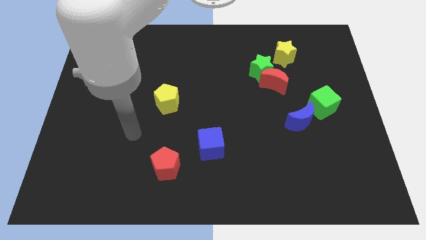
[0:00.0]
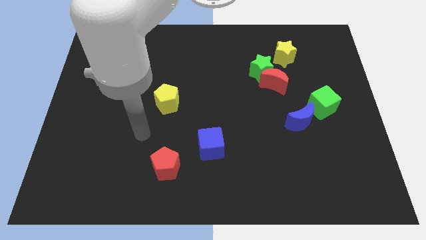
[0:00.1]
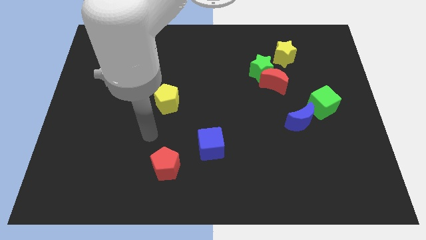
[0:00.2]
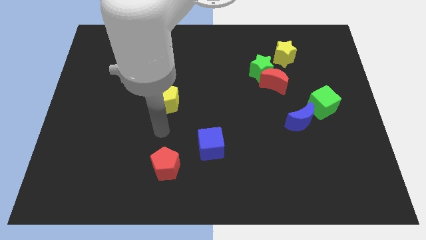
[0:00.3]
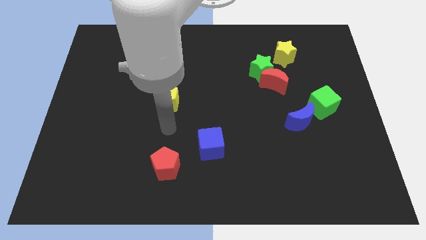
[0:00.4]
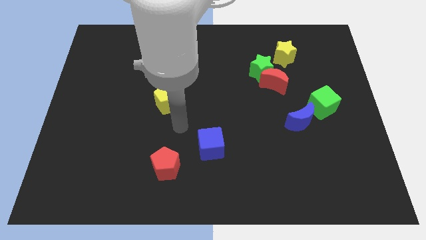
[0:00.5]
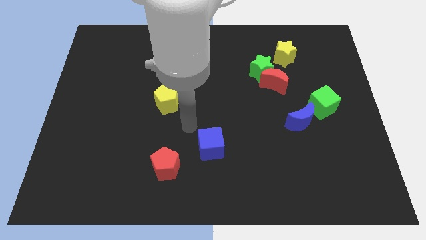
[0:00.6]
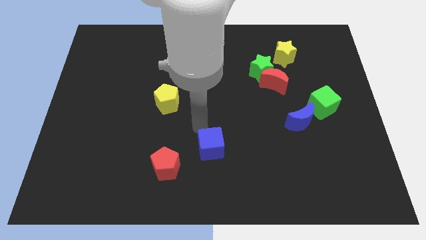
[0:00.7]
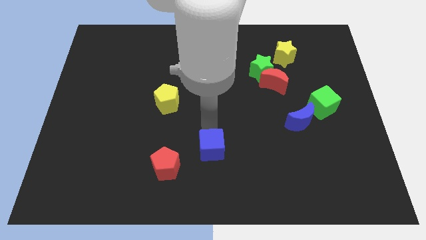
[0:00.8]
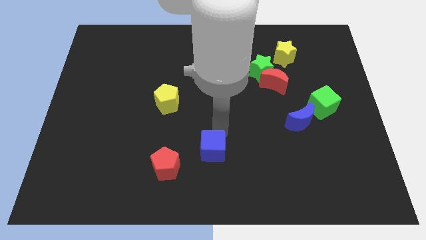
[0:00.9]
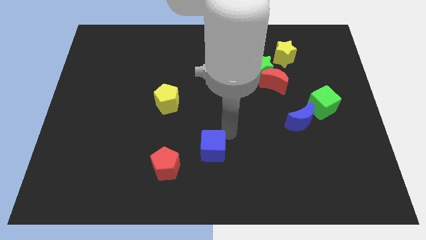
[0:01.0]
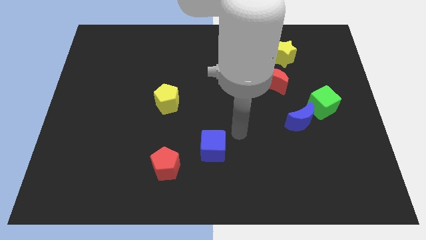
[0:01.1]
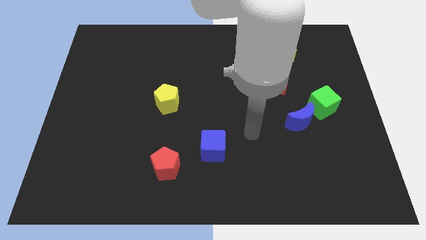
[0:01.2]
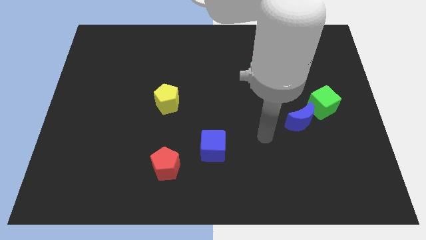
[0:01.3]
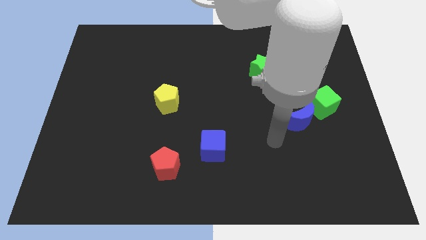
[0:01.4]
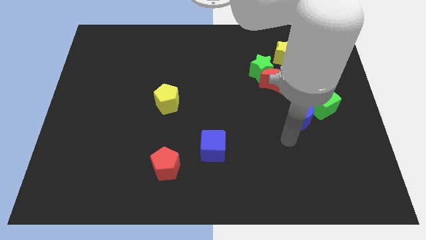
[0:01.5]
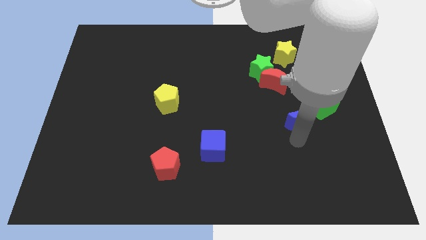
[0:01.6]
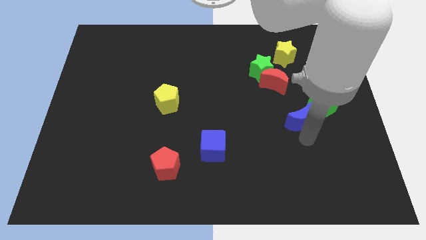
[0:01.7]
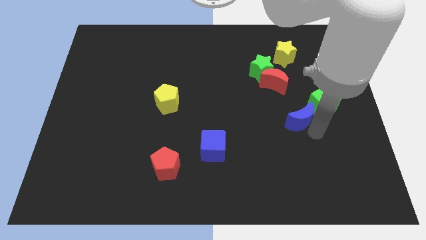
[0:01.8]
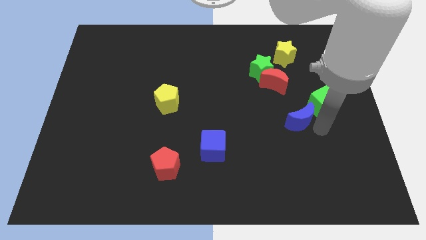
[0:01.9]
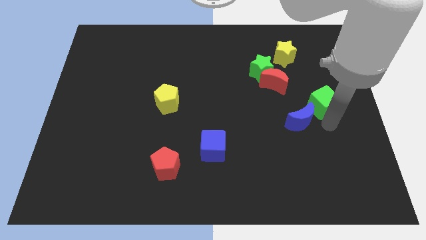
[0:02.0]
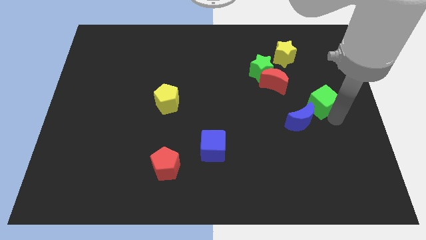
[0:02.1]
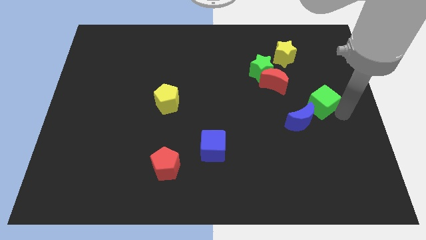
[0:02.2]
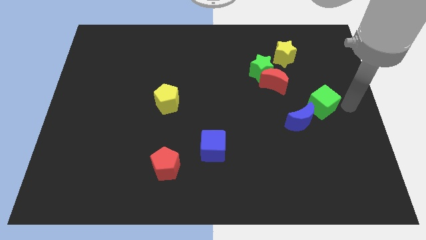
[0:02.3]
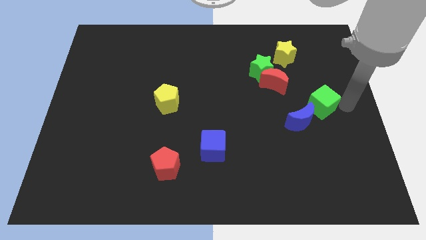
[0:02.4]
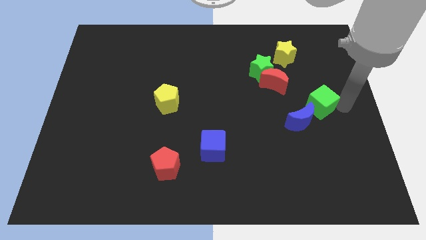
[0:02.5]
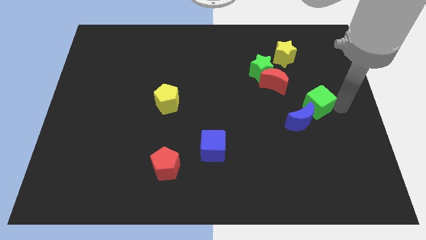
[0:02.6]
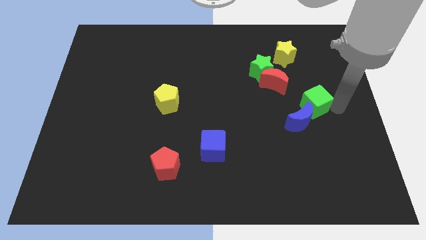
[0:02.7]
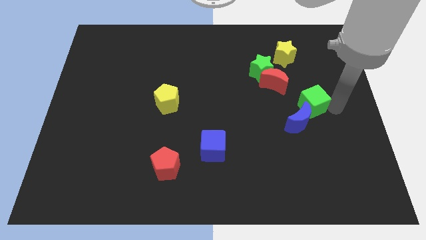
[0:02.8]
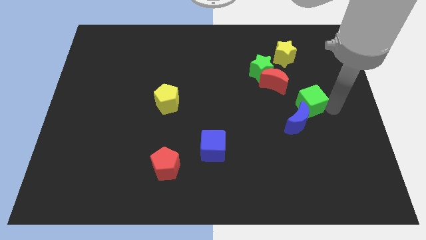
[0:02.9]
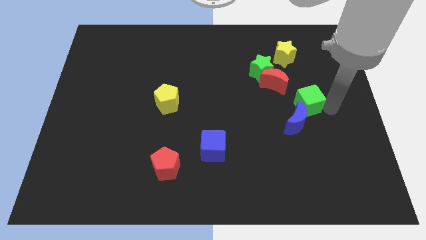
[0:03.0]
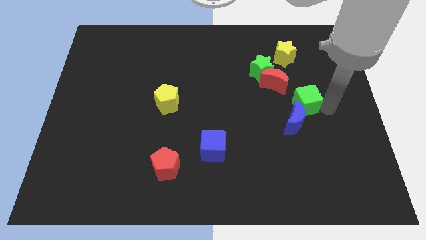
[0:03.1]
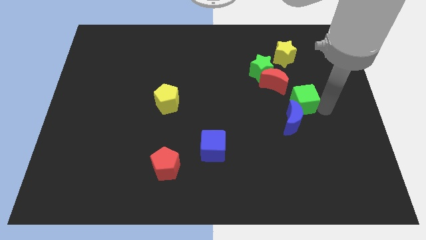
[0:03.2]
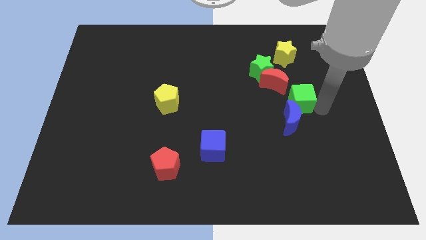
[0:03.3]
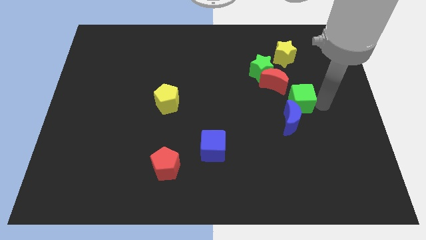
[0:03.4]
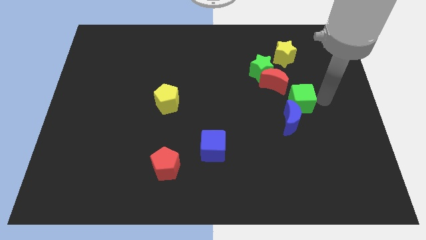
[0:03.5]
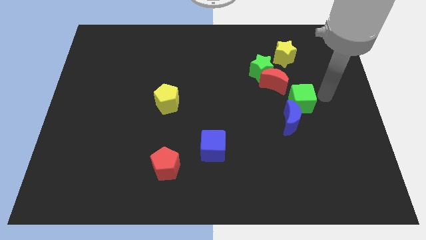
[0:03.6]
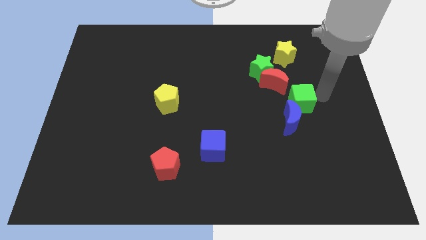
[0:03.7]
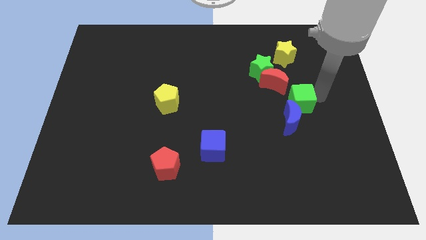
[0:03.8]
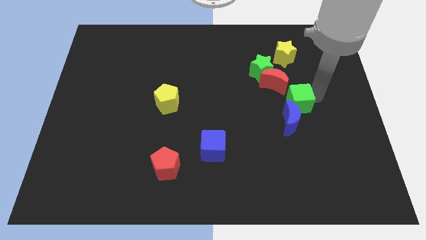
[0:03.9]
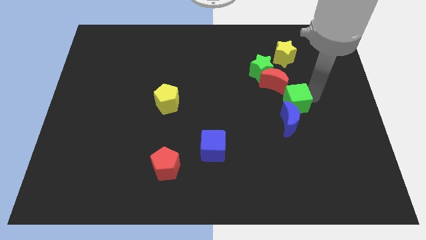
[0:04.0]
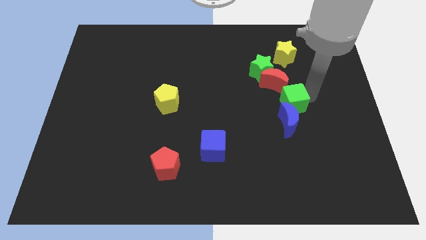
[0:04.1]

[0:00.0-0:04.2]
slide the green cube a little bit left

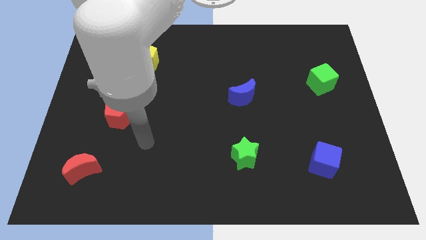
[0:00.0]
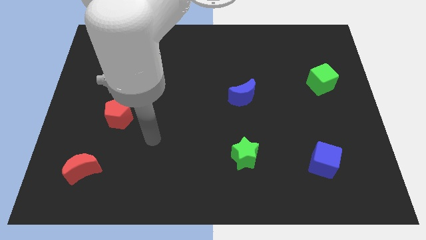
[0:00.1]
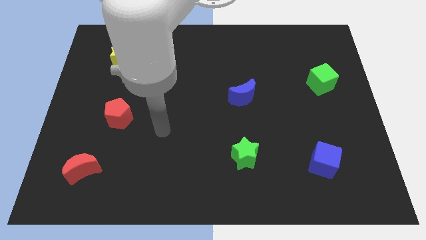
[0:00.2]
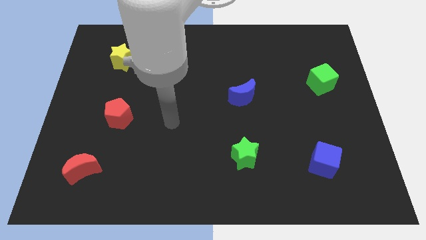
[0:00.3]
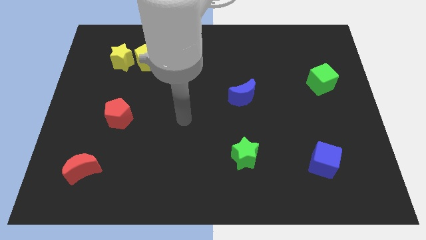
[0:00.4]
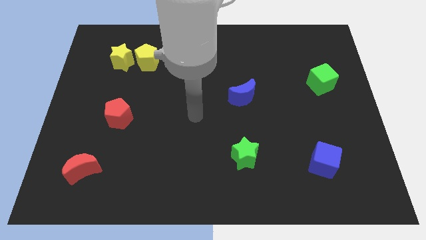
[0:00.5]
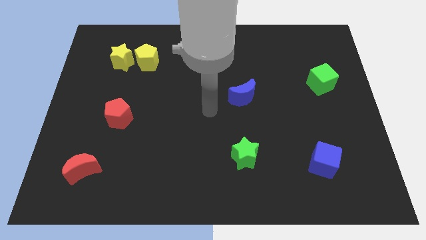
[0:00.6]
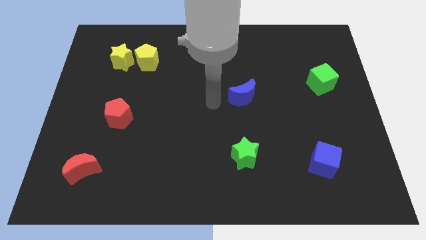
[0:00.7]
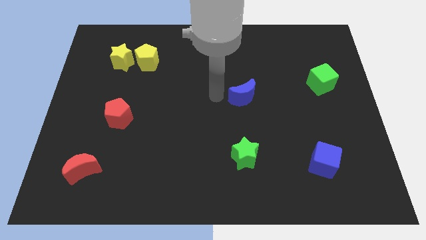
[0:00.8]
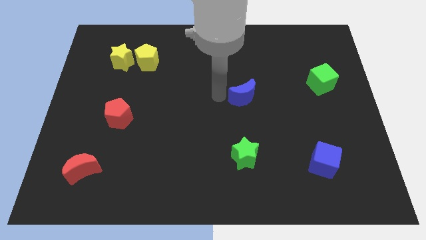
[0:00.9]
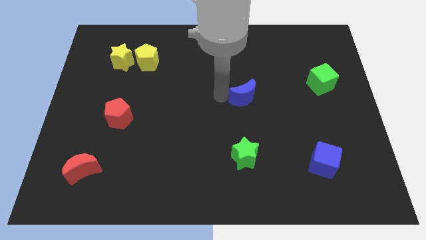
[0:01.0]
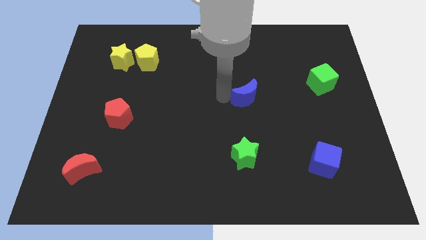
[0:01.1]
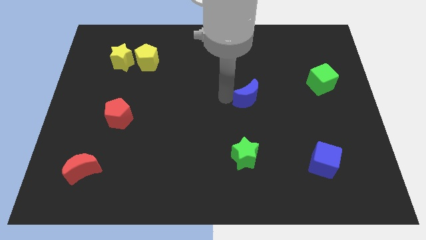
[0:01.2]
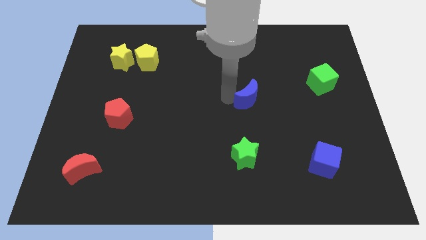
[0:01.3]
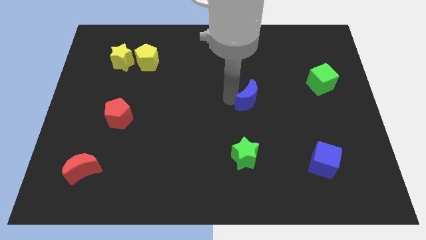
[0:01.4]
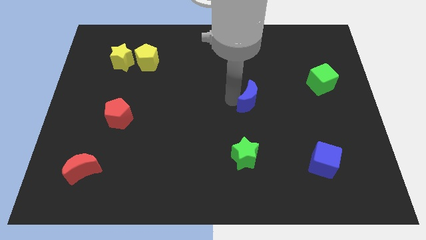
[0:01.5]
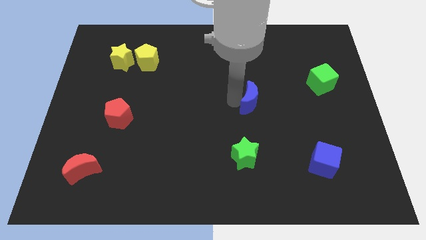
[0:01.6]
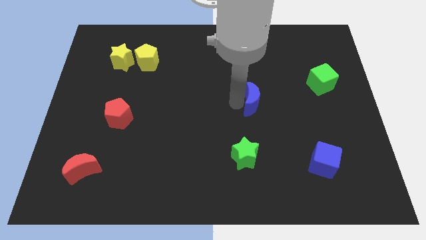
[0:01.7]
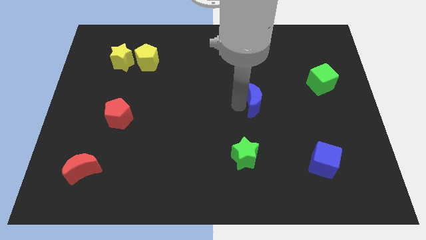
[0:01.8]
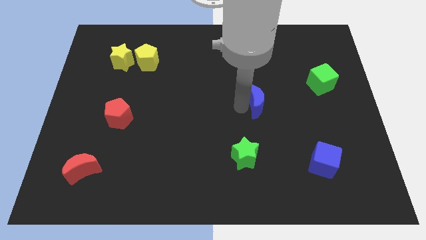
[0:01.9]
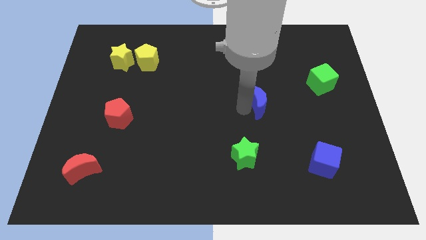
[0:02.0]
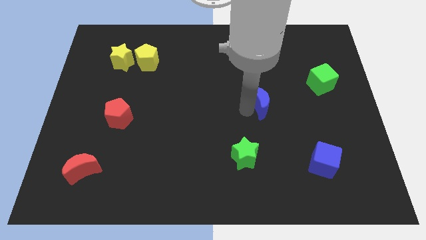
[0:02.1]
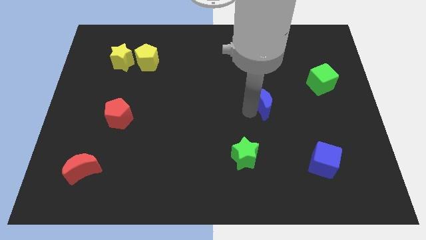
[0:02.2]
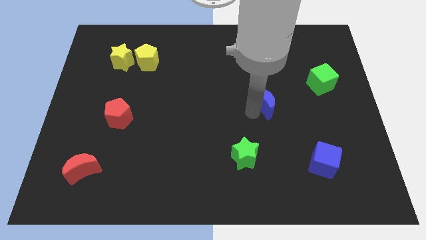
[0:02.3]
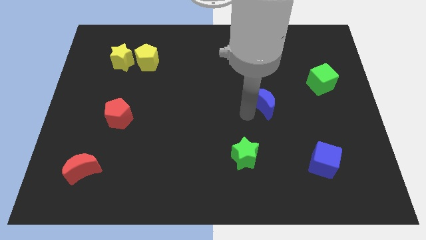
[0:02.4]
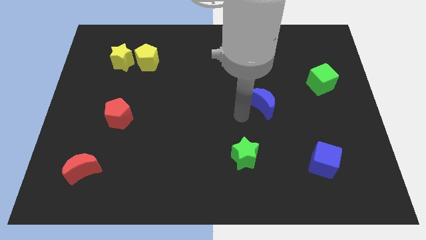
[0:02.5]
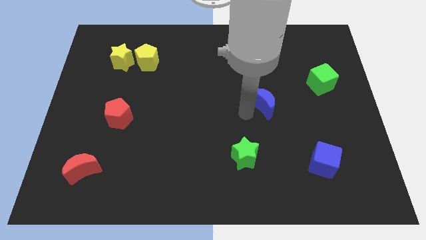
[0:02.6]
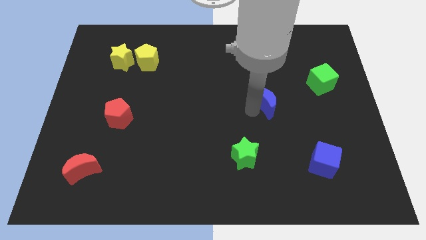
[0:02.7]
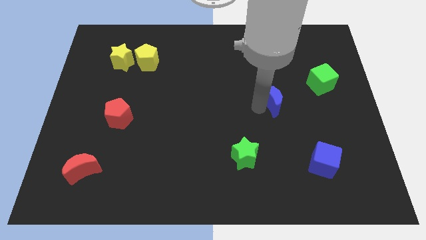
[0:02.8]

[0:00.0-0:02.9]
move the blue moon a little bit to the right

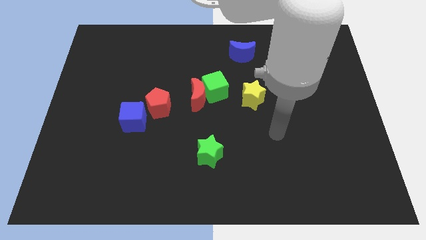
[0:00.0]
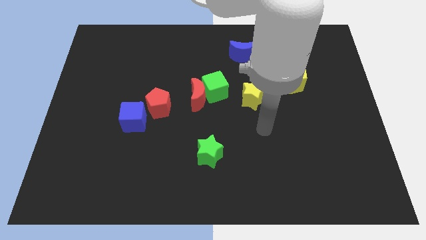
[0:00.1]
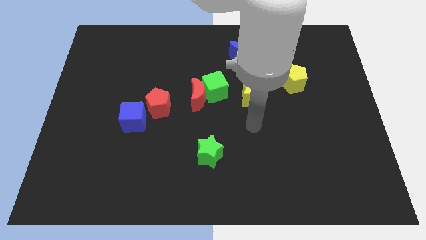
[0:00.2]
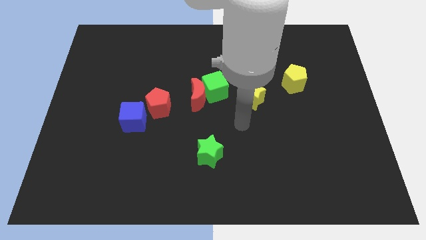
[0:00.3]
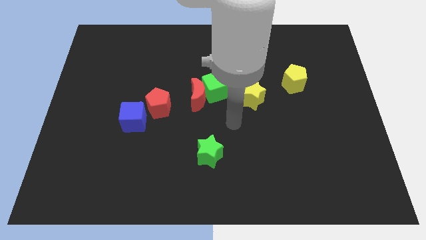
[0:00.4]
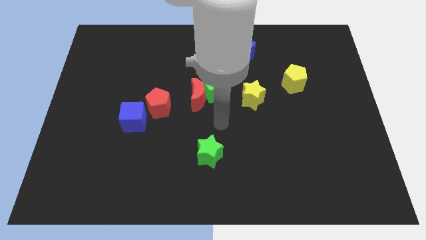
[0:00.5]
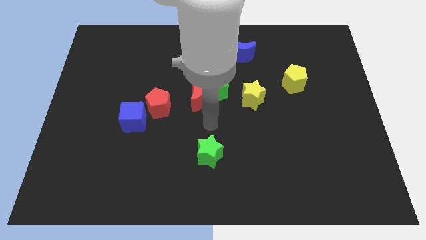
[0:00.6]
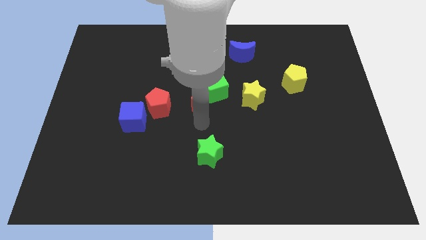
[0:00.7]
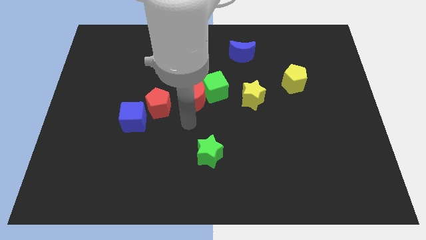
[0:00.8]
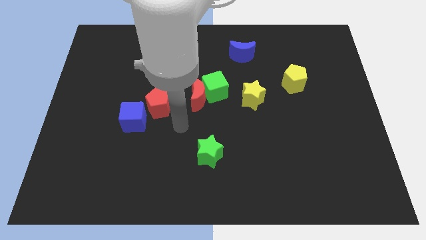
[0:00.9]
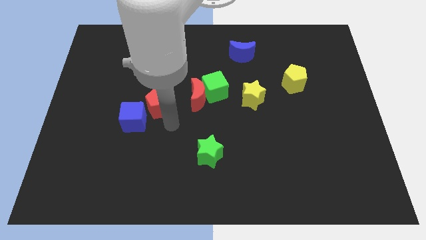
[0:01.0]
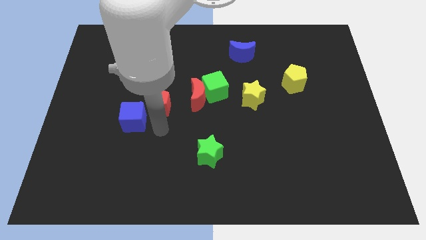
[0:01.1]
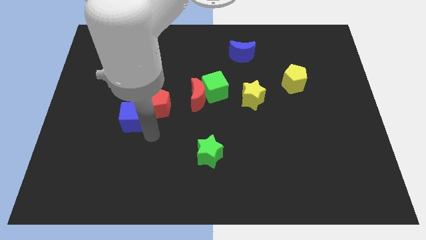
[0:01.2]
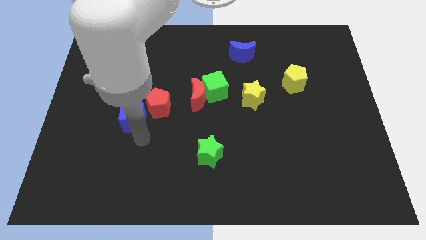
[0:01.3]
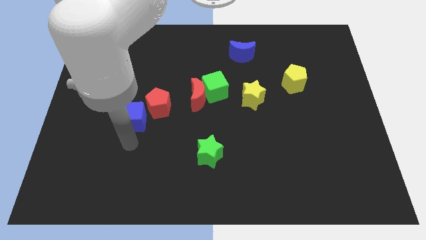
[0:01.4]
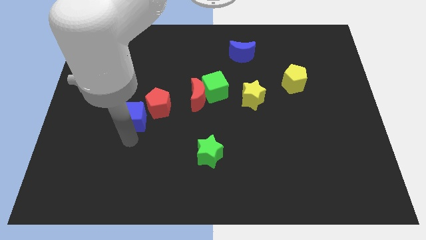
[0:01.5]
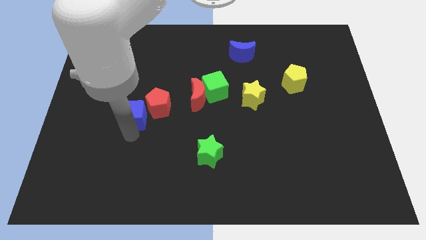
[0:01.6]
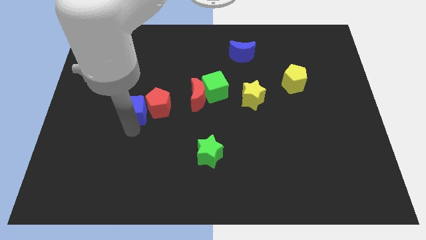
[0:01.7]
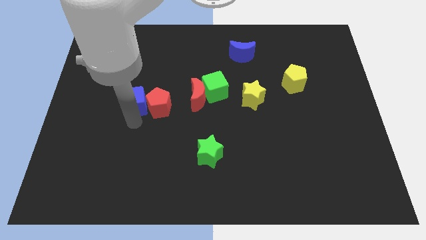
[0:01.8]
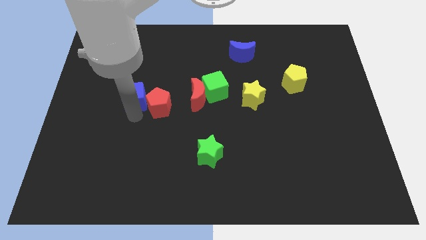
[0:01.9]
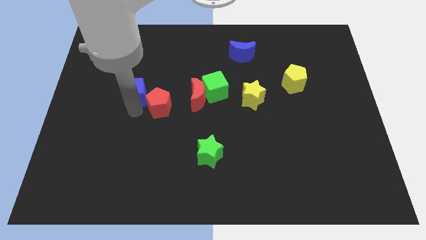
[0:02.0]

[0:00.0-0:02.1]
slide the blue cube upwards slightly
